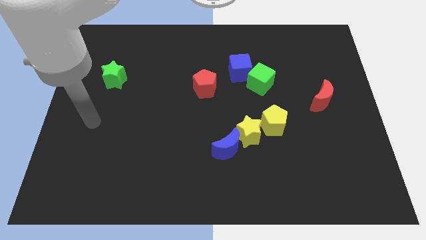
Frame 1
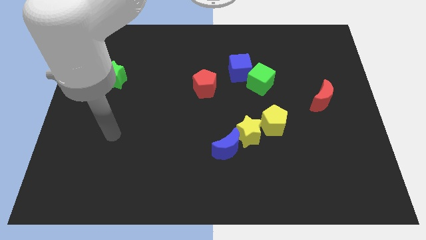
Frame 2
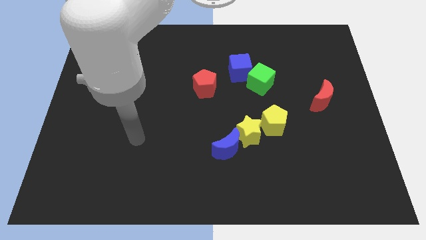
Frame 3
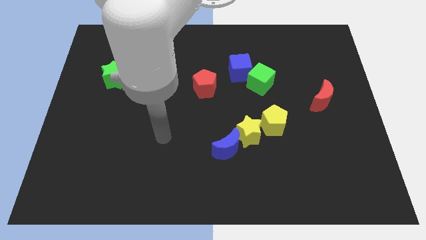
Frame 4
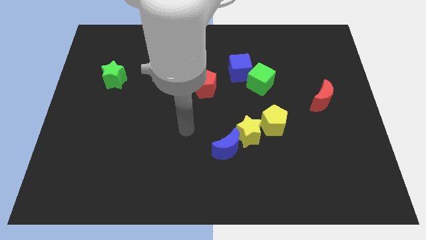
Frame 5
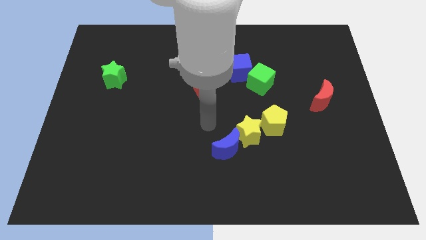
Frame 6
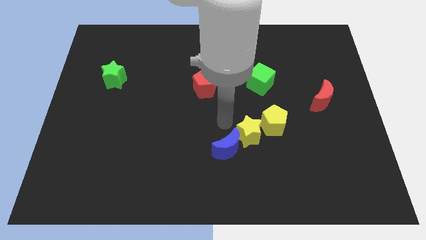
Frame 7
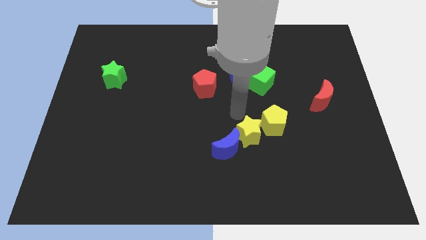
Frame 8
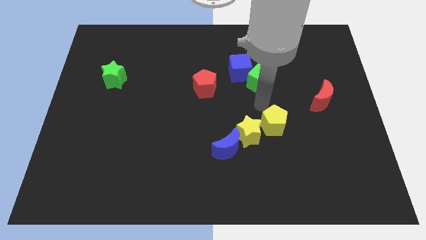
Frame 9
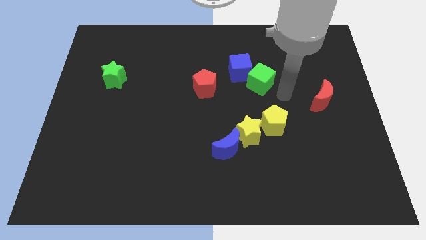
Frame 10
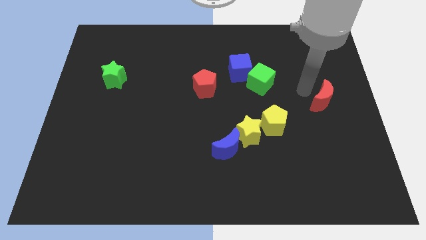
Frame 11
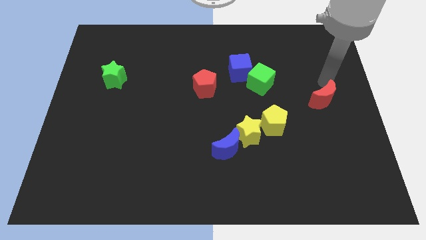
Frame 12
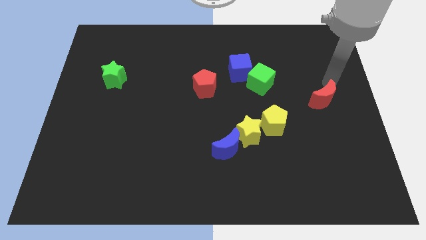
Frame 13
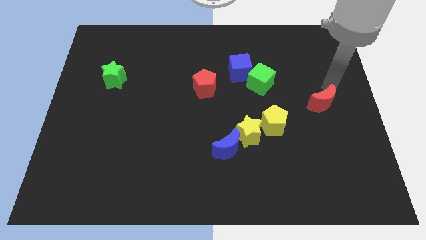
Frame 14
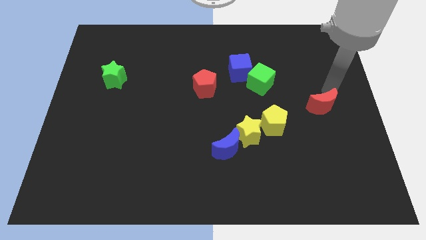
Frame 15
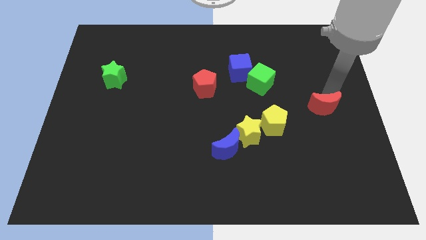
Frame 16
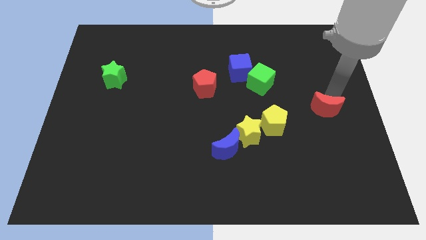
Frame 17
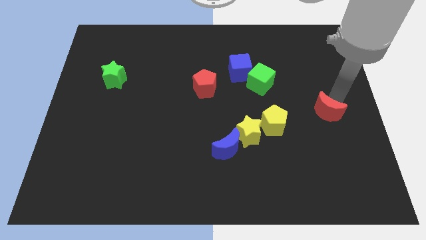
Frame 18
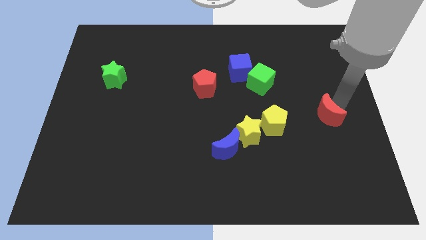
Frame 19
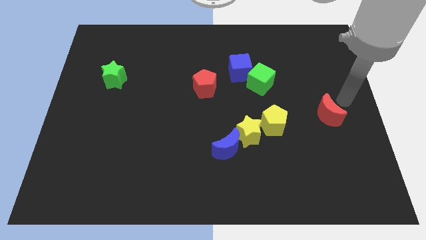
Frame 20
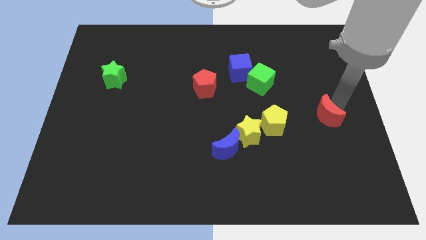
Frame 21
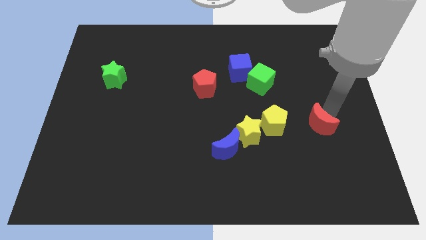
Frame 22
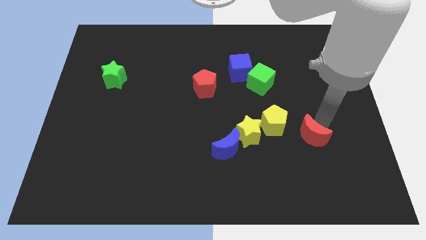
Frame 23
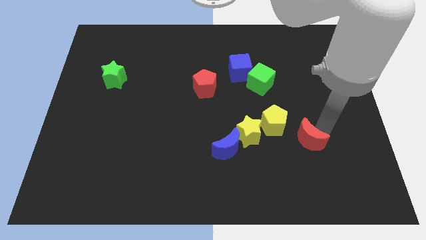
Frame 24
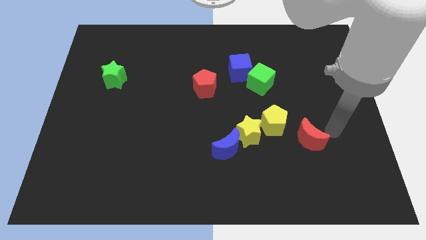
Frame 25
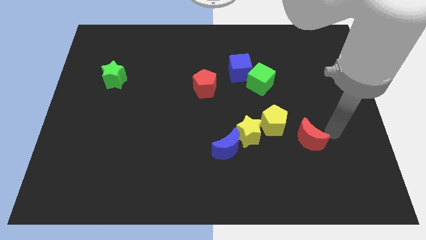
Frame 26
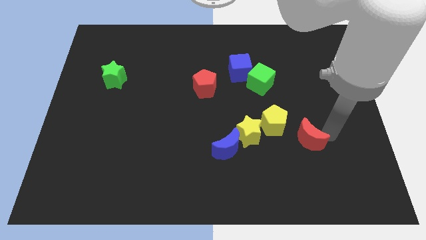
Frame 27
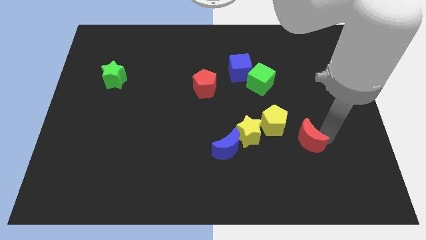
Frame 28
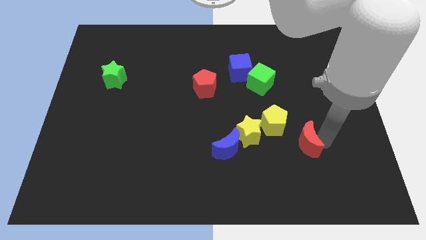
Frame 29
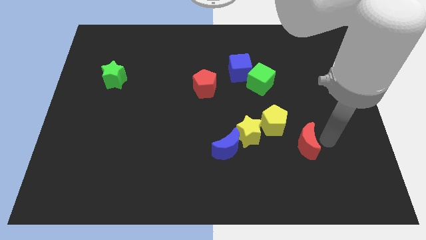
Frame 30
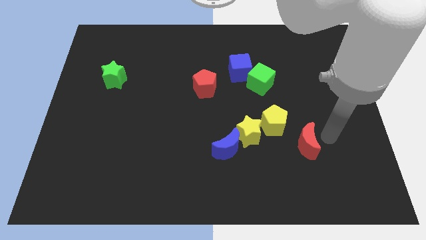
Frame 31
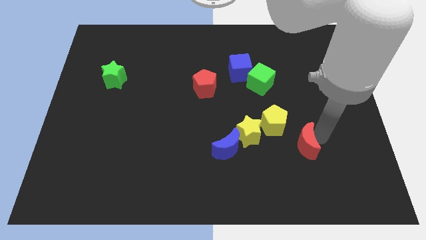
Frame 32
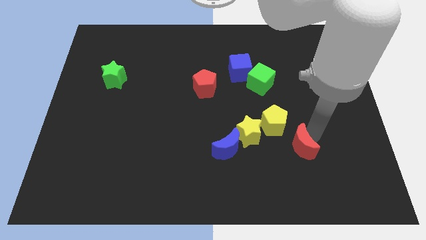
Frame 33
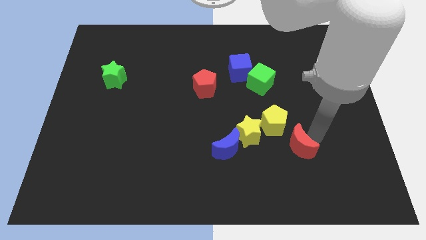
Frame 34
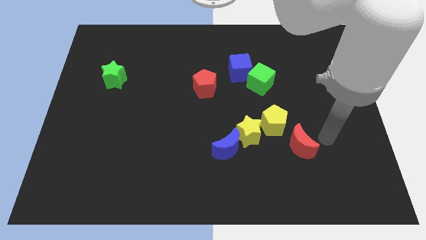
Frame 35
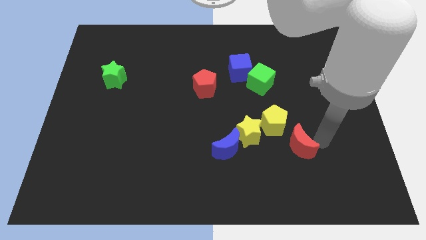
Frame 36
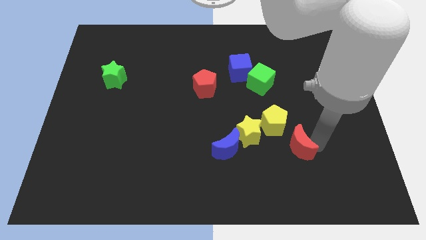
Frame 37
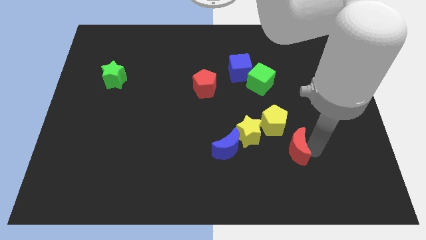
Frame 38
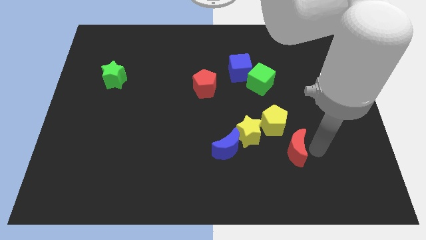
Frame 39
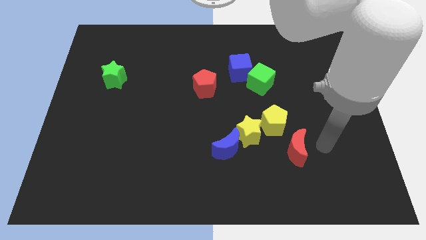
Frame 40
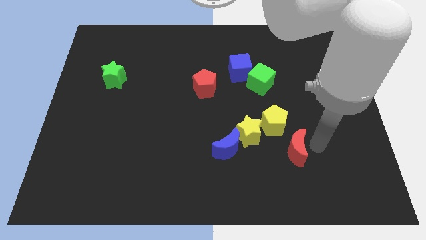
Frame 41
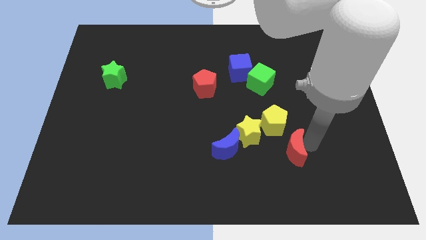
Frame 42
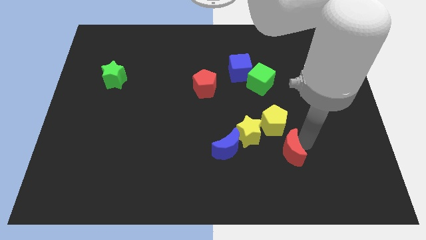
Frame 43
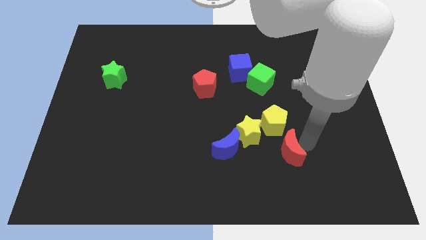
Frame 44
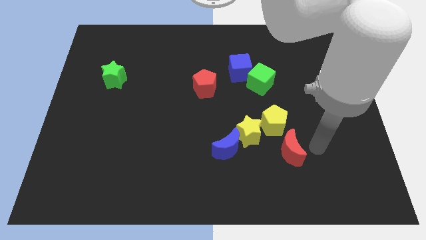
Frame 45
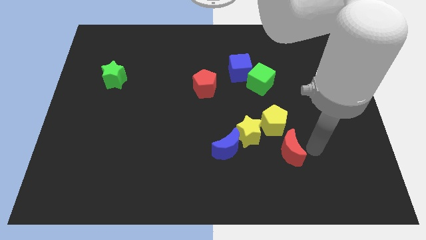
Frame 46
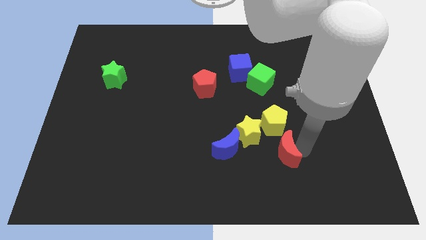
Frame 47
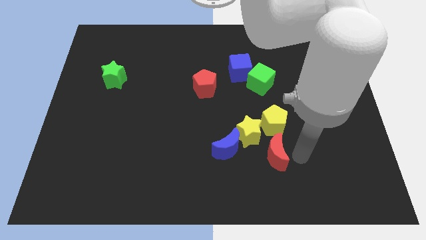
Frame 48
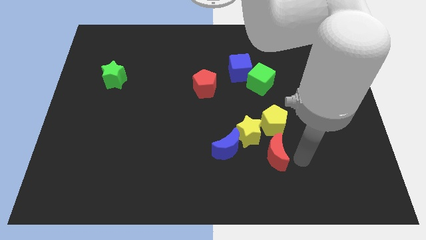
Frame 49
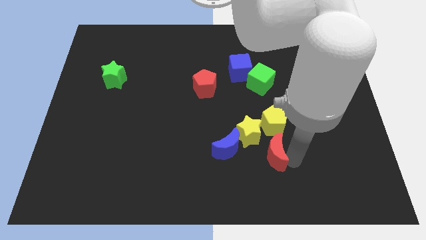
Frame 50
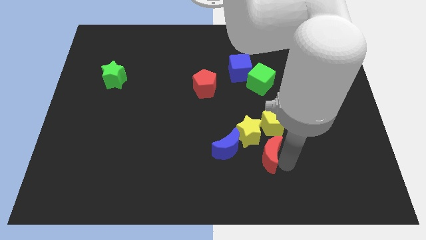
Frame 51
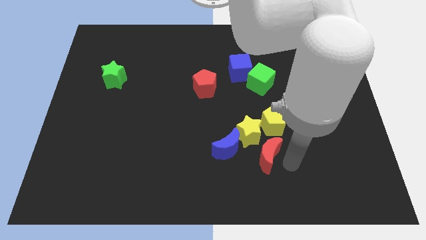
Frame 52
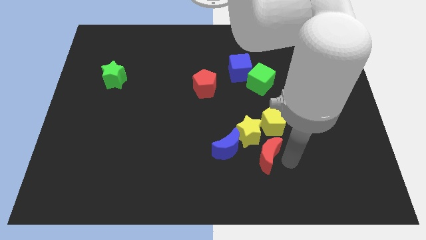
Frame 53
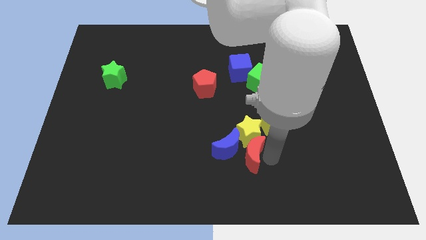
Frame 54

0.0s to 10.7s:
slide the red moon next to the blue moon

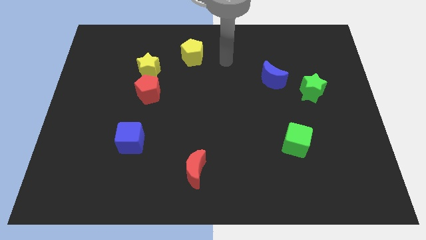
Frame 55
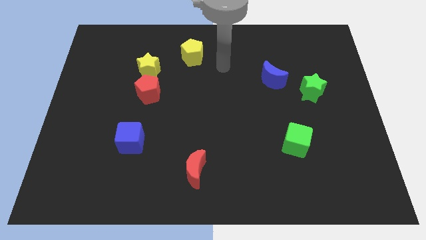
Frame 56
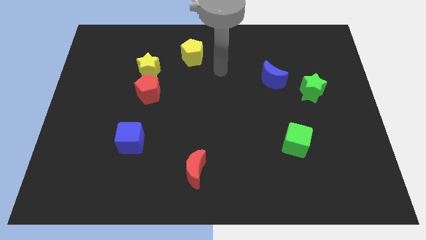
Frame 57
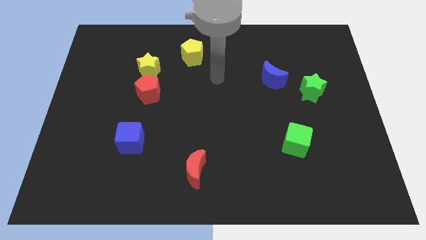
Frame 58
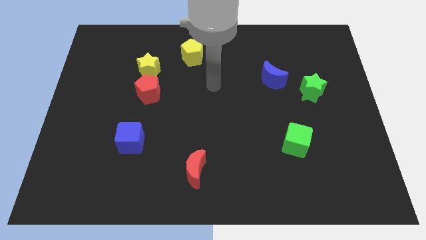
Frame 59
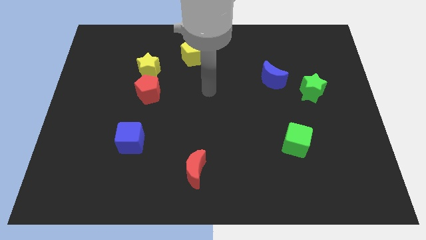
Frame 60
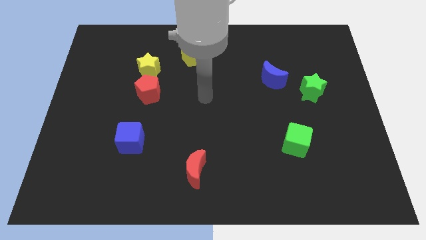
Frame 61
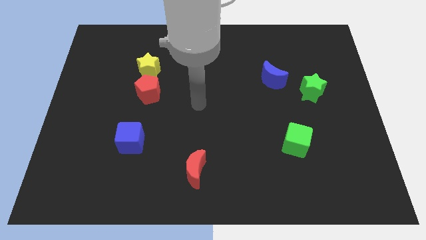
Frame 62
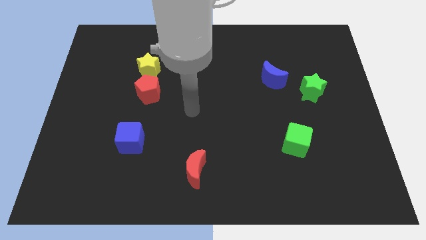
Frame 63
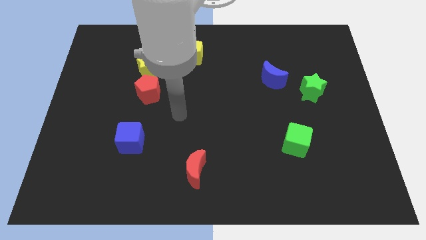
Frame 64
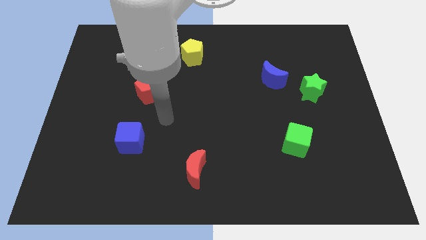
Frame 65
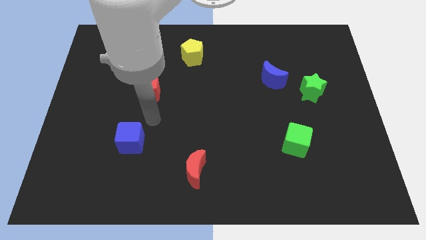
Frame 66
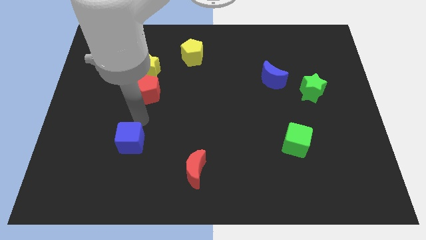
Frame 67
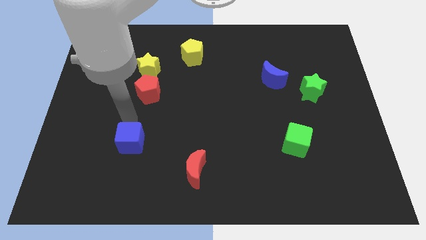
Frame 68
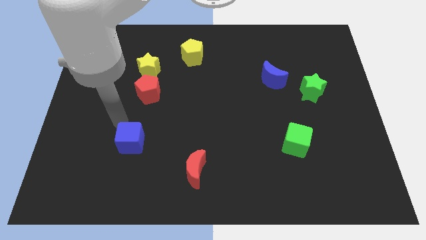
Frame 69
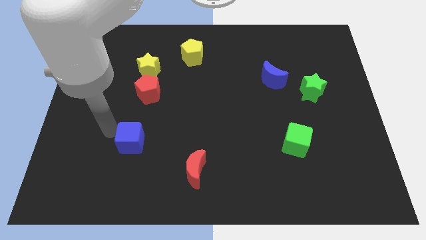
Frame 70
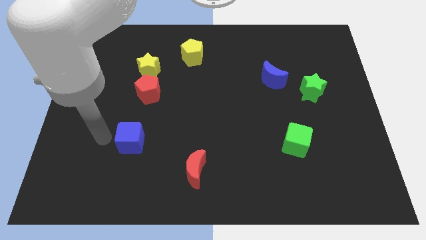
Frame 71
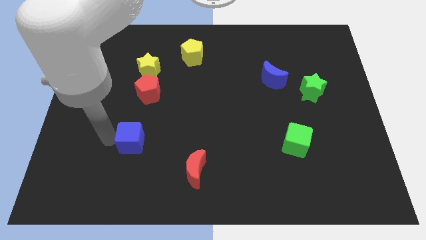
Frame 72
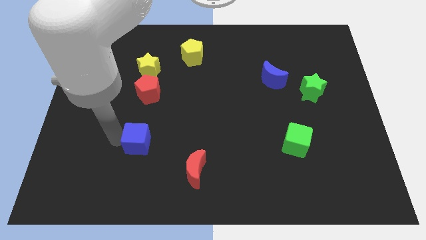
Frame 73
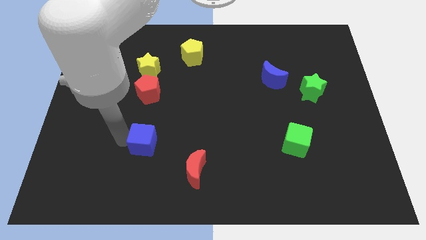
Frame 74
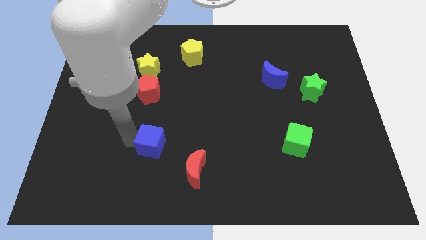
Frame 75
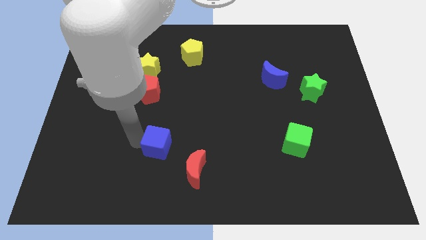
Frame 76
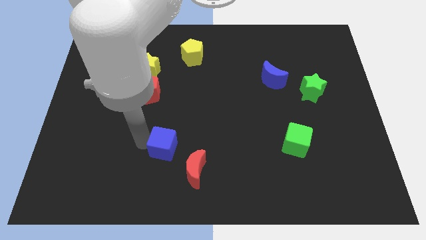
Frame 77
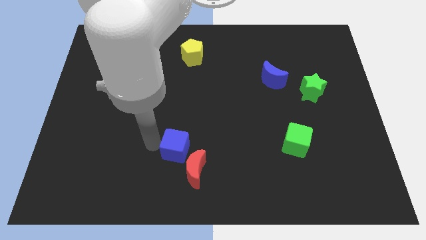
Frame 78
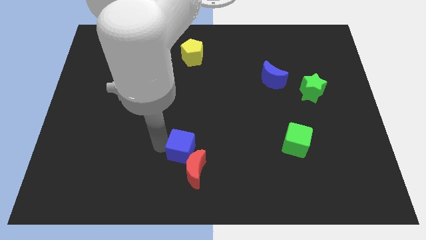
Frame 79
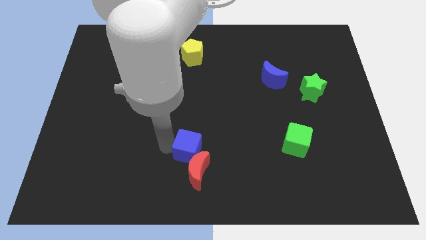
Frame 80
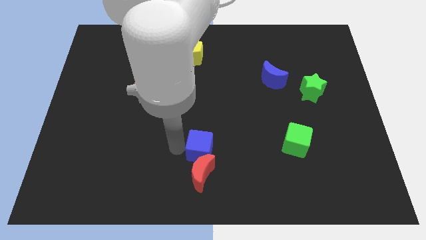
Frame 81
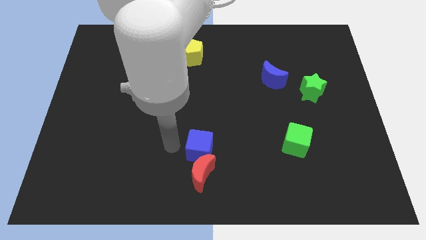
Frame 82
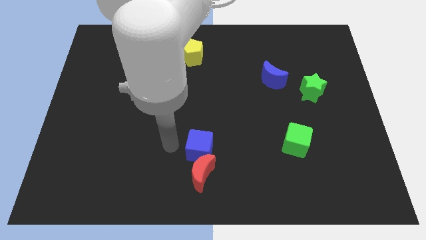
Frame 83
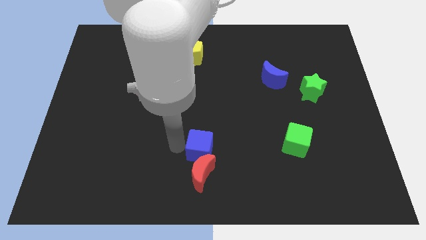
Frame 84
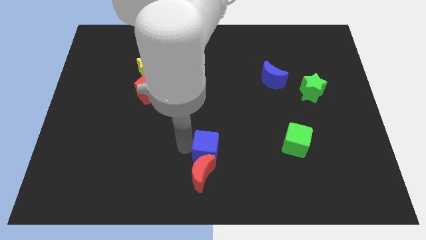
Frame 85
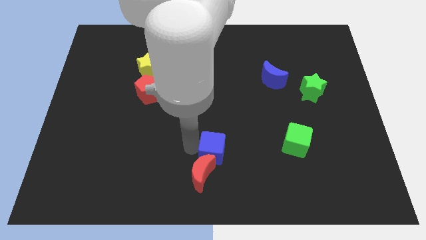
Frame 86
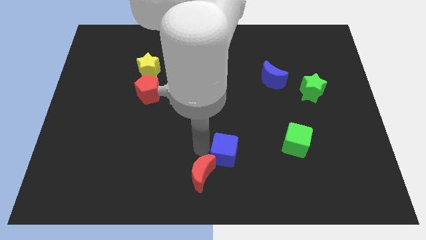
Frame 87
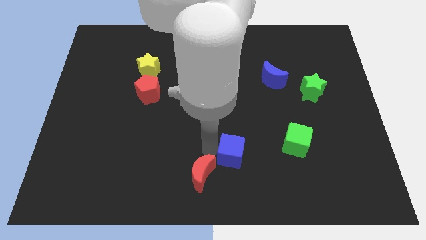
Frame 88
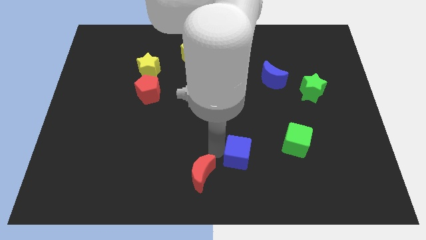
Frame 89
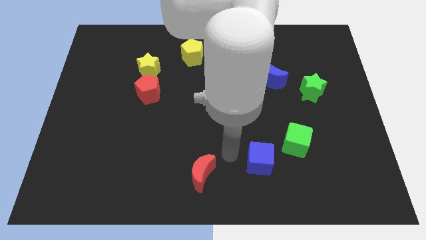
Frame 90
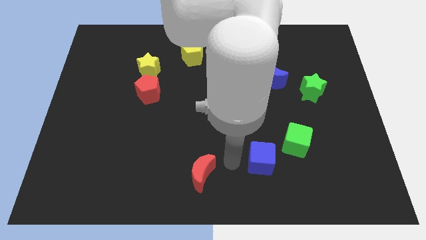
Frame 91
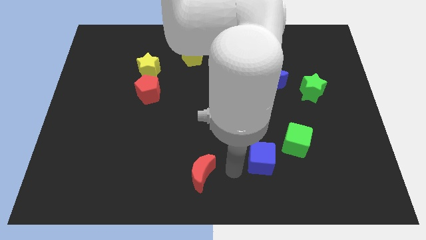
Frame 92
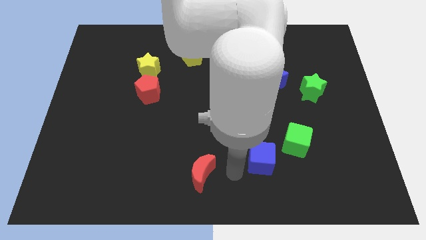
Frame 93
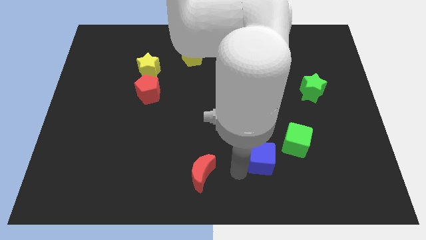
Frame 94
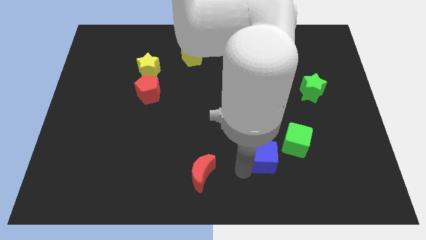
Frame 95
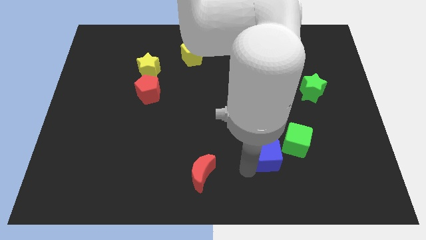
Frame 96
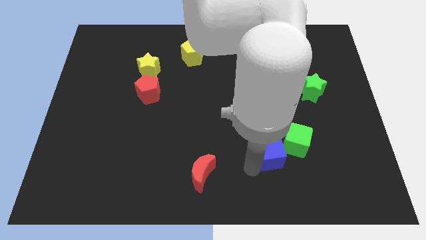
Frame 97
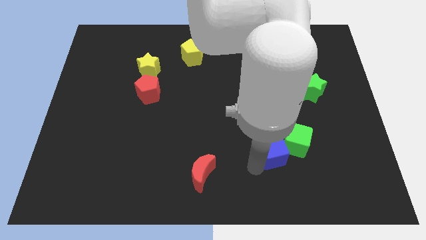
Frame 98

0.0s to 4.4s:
put the blue cube towards the green cube
